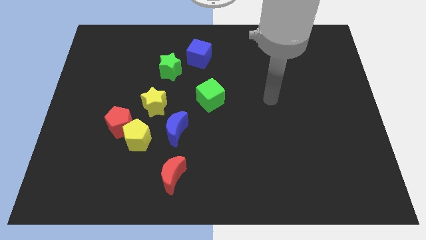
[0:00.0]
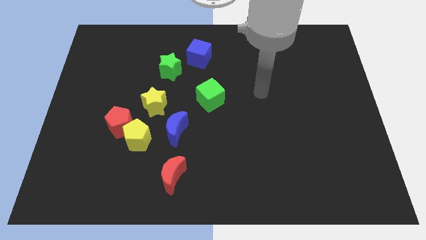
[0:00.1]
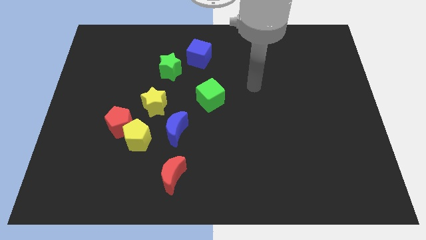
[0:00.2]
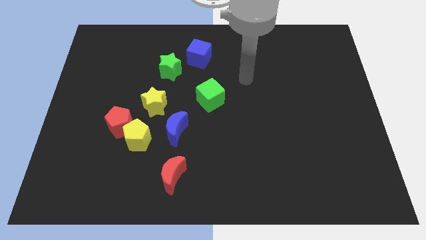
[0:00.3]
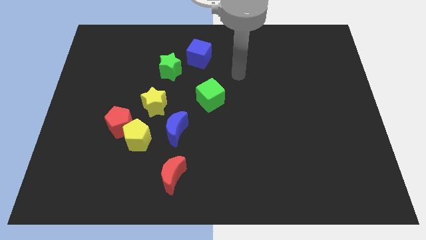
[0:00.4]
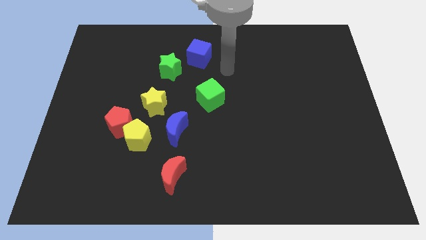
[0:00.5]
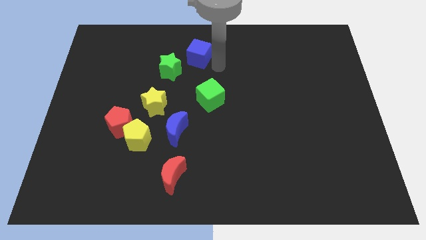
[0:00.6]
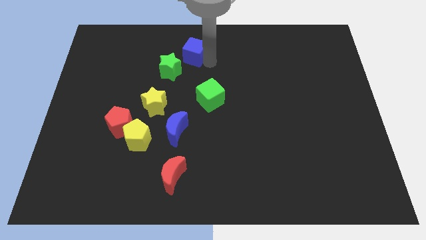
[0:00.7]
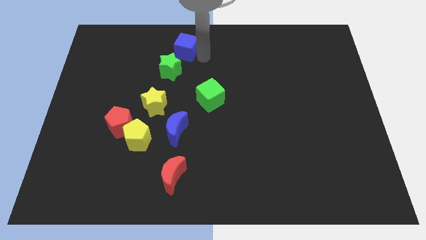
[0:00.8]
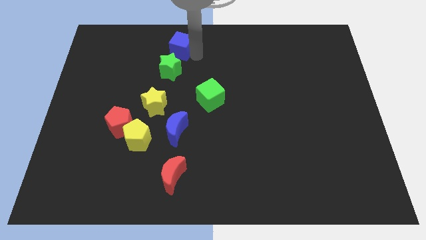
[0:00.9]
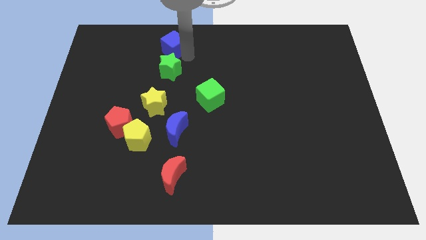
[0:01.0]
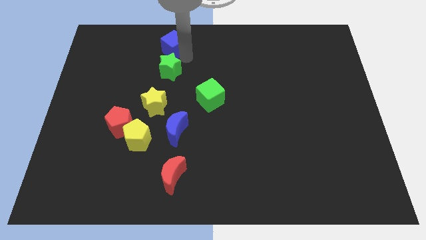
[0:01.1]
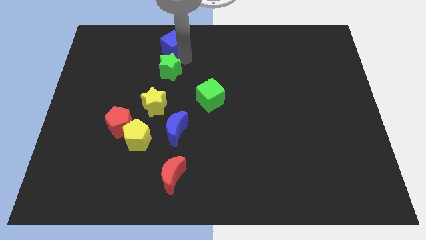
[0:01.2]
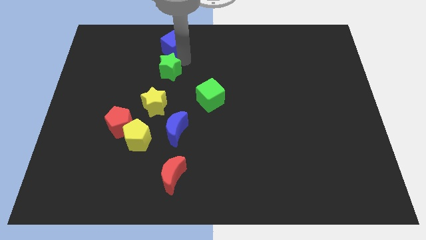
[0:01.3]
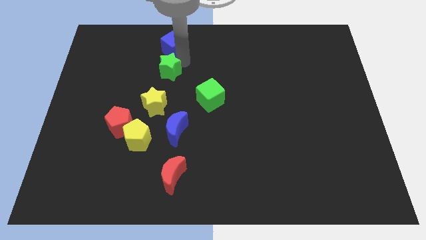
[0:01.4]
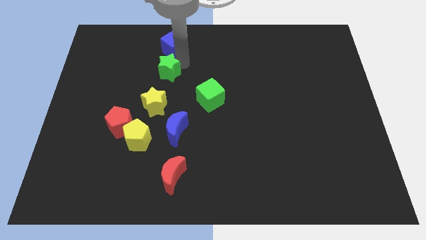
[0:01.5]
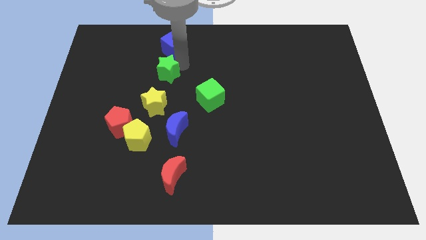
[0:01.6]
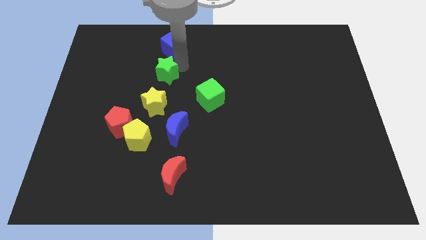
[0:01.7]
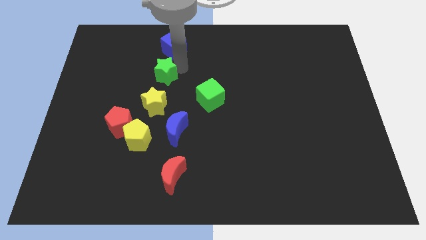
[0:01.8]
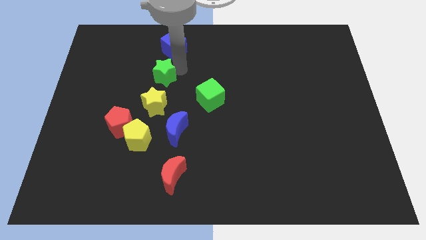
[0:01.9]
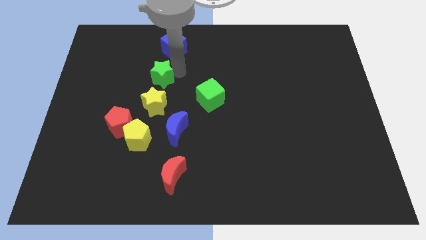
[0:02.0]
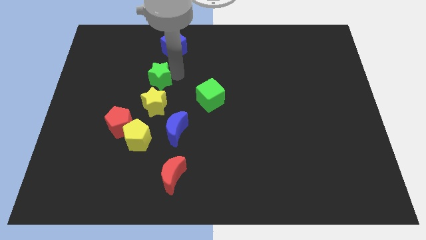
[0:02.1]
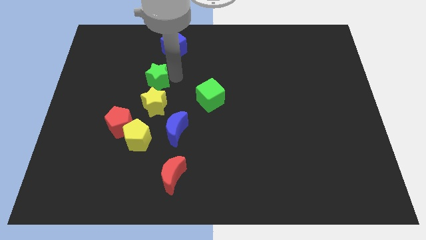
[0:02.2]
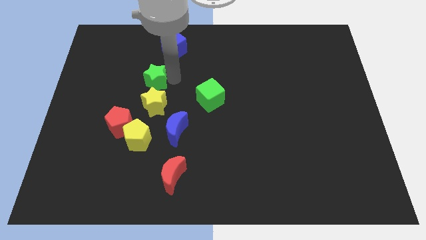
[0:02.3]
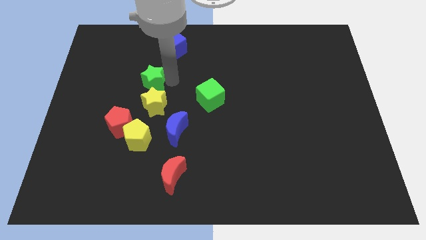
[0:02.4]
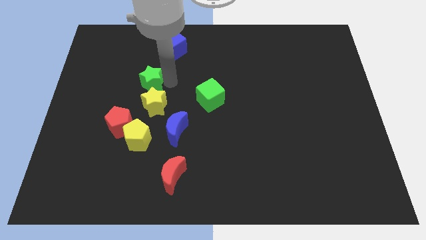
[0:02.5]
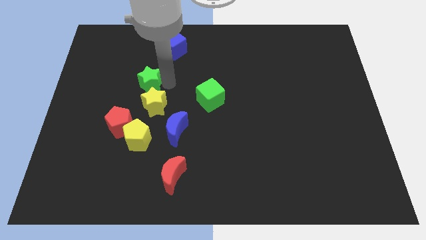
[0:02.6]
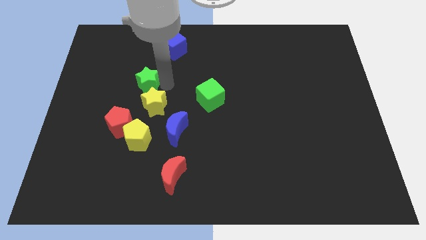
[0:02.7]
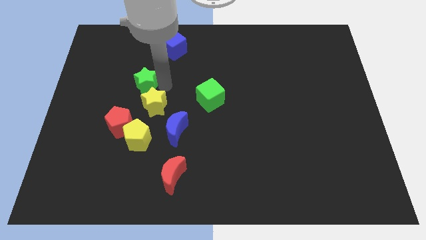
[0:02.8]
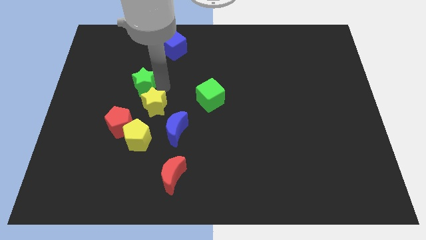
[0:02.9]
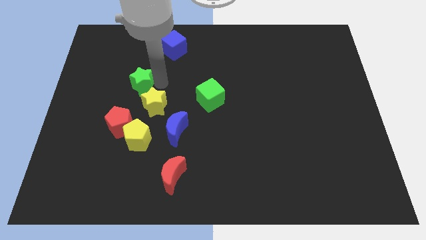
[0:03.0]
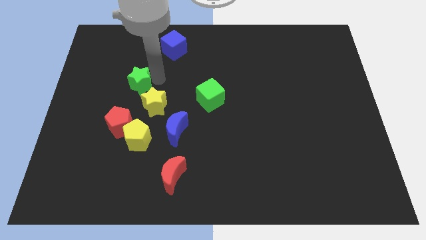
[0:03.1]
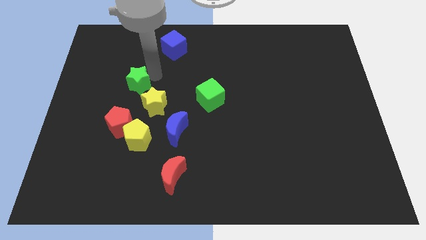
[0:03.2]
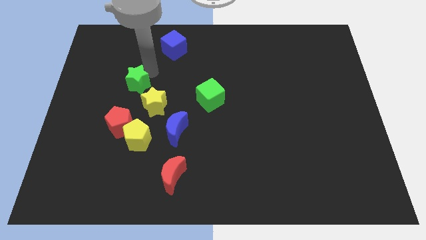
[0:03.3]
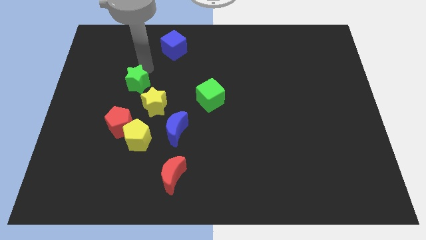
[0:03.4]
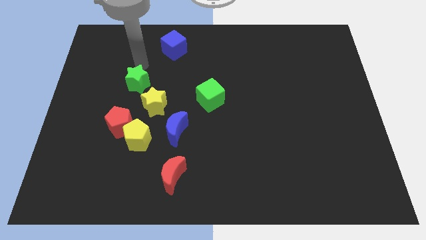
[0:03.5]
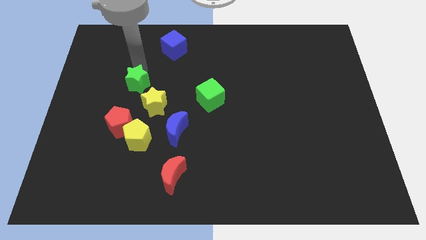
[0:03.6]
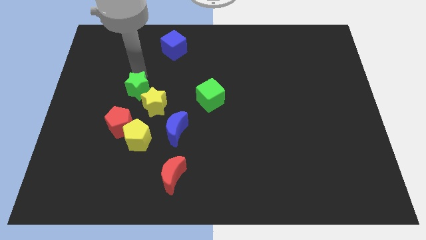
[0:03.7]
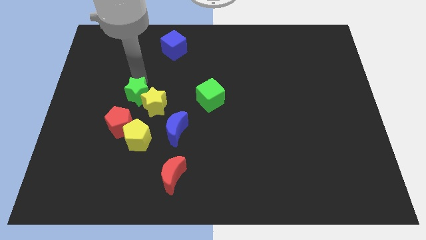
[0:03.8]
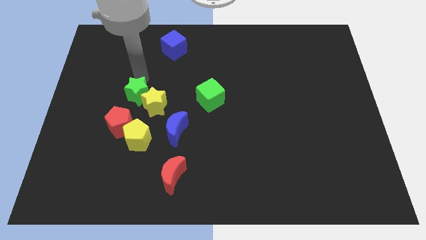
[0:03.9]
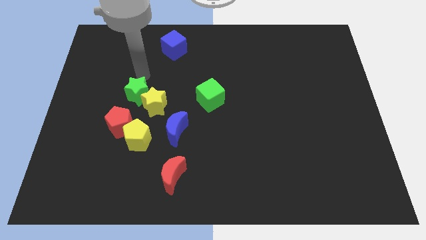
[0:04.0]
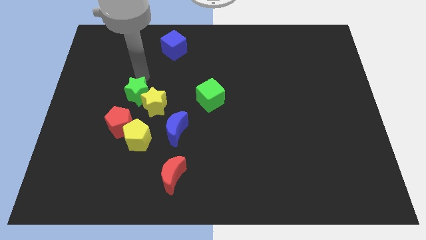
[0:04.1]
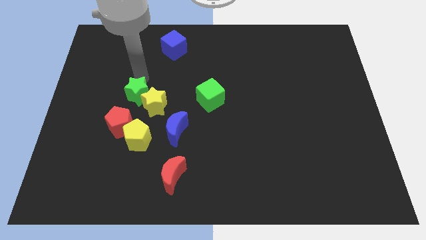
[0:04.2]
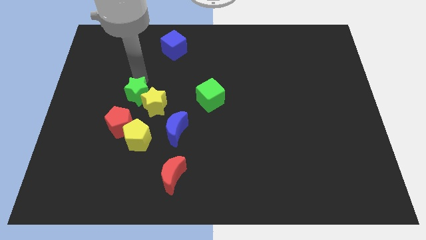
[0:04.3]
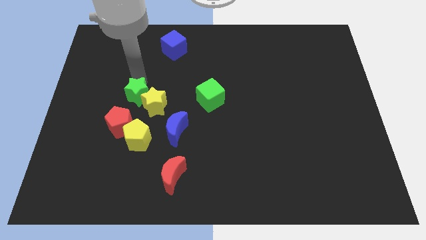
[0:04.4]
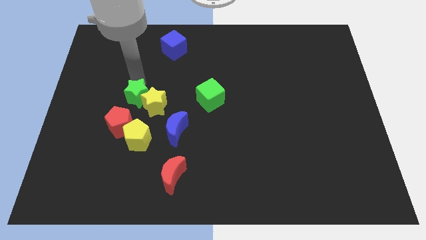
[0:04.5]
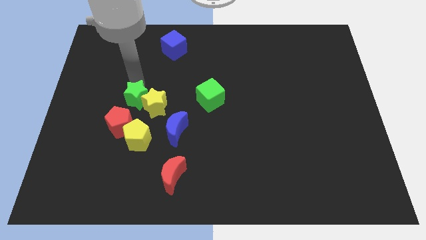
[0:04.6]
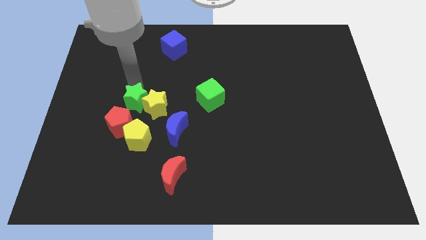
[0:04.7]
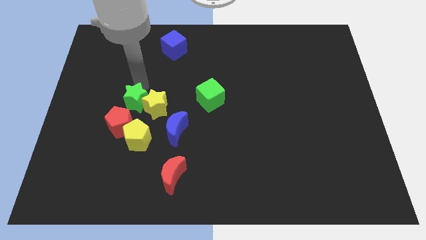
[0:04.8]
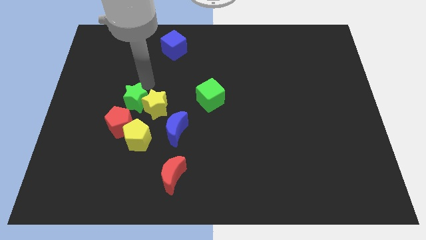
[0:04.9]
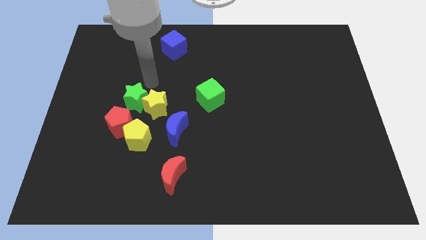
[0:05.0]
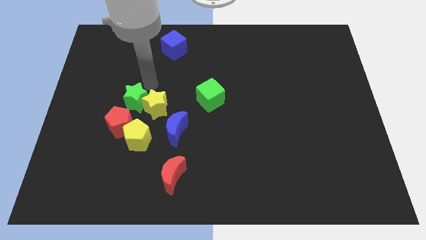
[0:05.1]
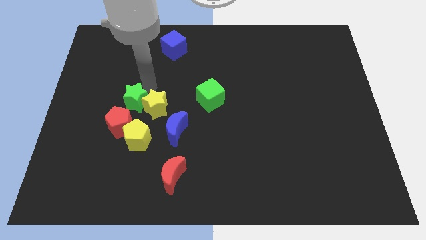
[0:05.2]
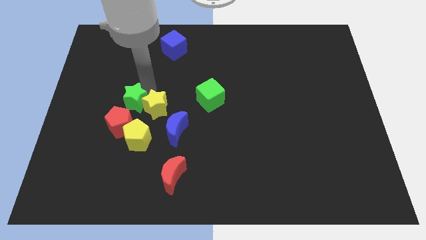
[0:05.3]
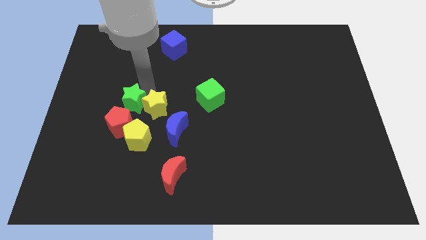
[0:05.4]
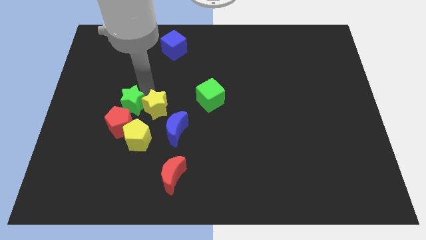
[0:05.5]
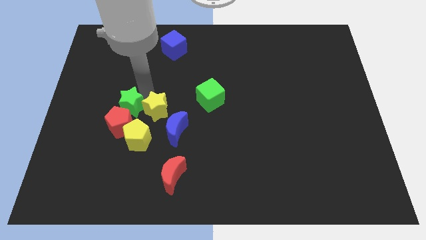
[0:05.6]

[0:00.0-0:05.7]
slide the green star close to the red pentagon

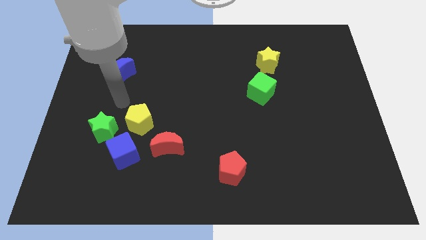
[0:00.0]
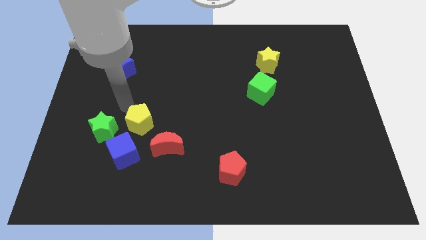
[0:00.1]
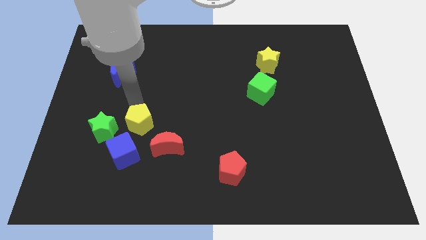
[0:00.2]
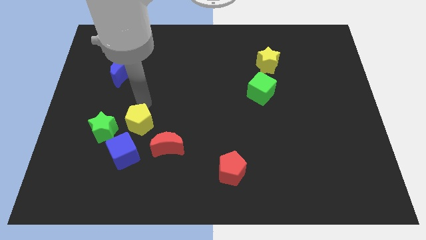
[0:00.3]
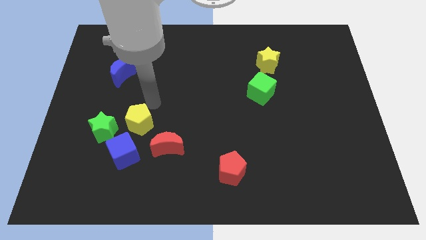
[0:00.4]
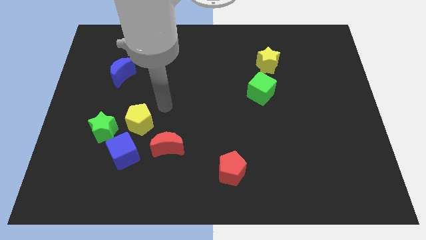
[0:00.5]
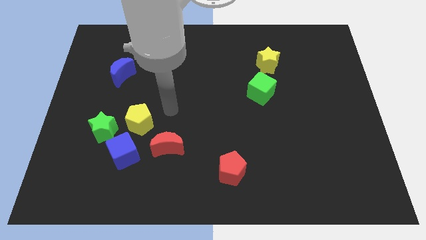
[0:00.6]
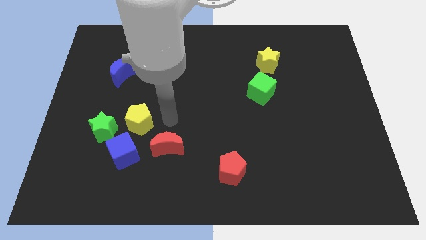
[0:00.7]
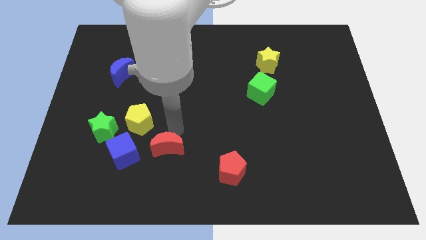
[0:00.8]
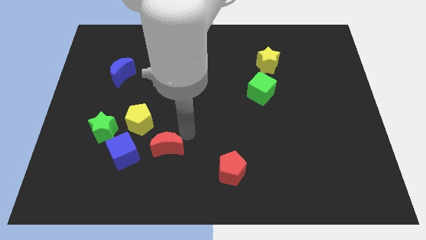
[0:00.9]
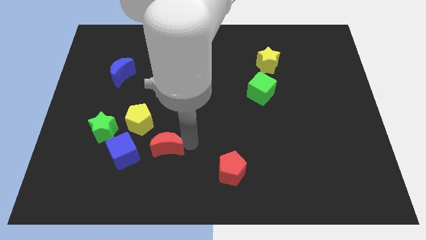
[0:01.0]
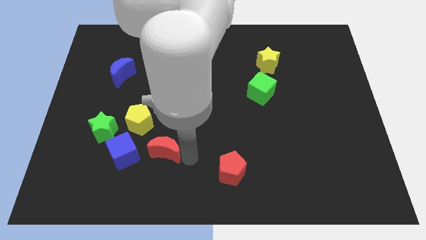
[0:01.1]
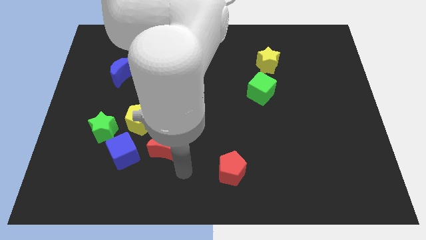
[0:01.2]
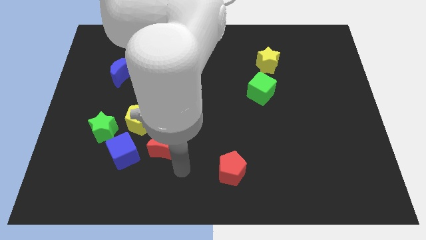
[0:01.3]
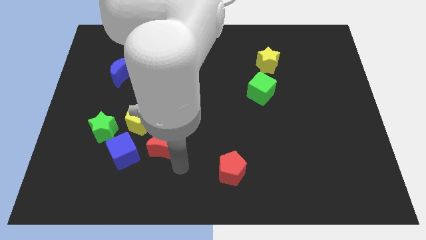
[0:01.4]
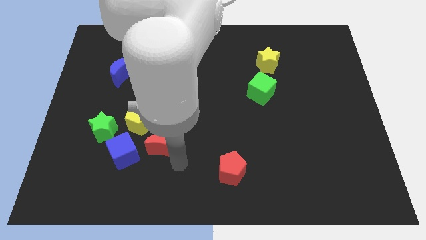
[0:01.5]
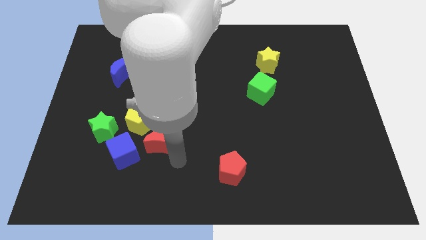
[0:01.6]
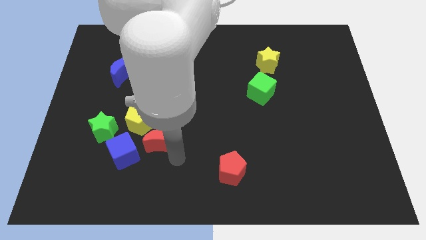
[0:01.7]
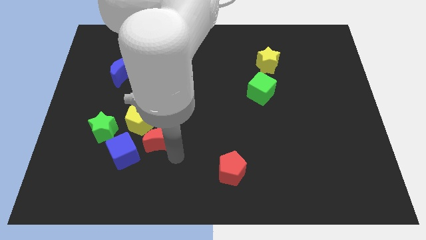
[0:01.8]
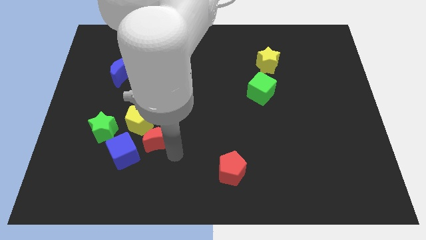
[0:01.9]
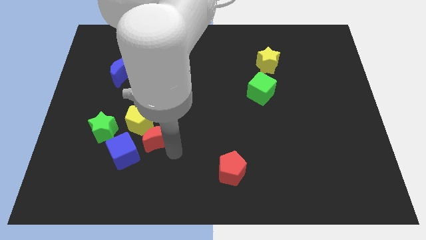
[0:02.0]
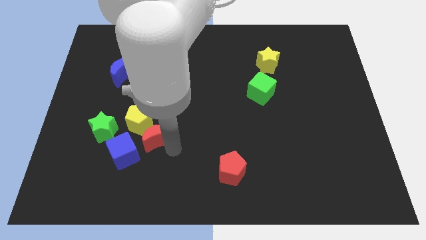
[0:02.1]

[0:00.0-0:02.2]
move the red moon to the yellow pentagon
